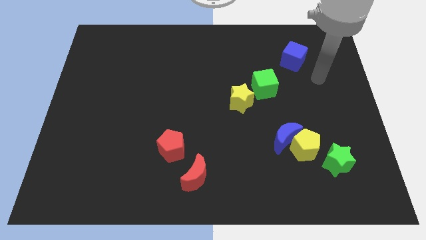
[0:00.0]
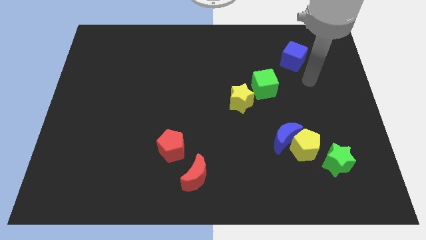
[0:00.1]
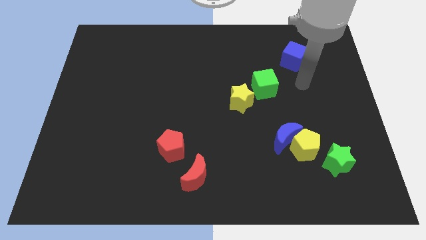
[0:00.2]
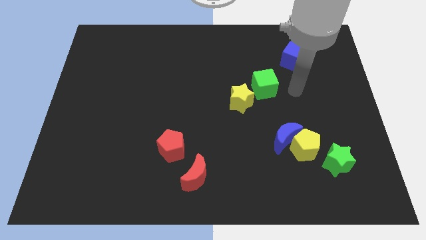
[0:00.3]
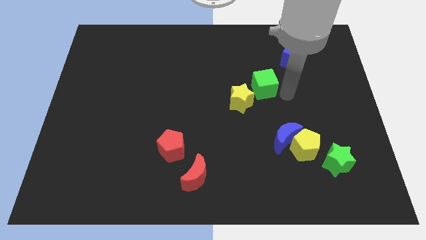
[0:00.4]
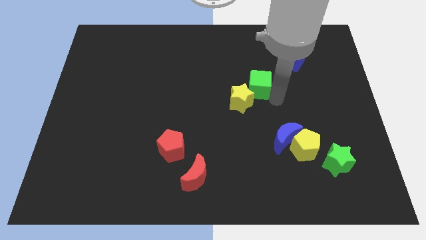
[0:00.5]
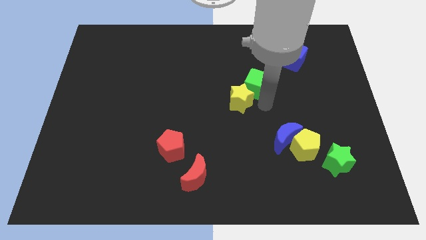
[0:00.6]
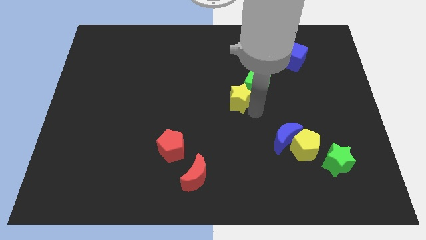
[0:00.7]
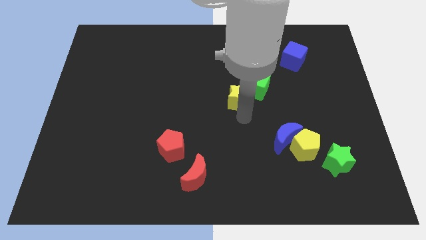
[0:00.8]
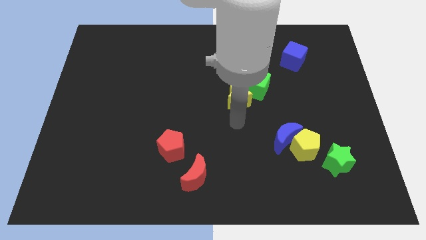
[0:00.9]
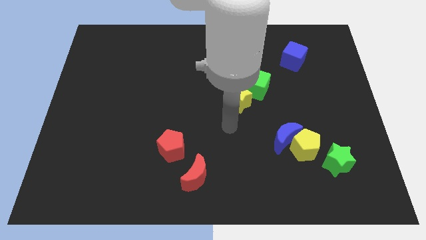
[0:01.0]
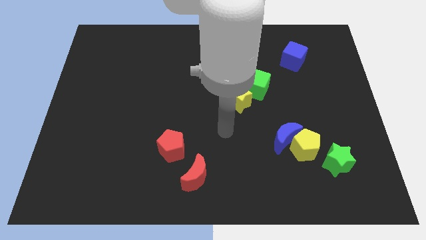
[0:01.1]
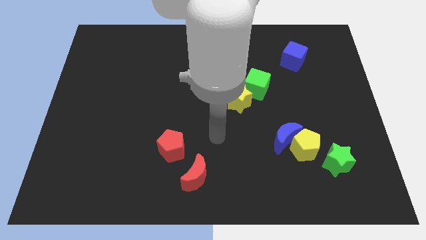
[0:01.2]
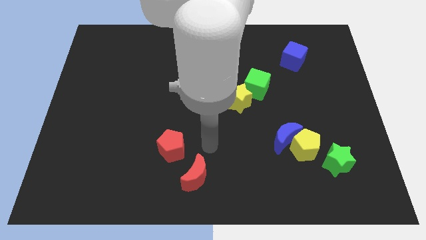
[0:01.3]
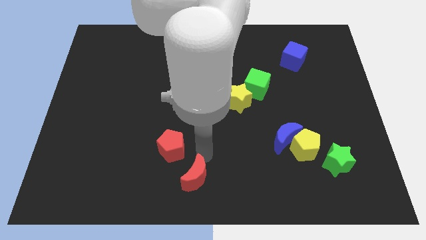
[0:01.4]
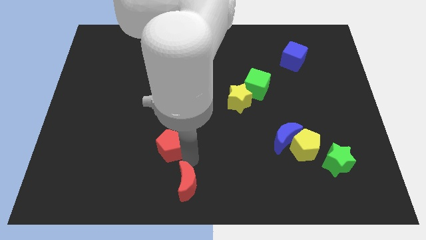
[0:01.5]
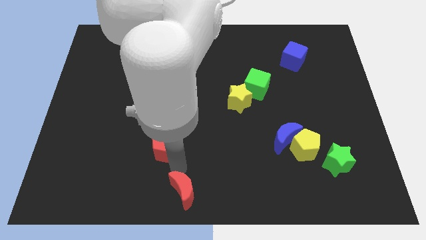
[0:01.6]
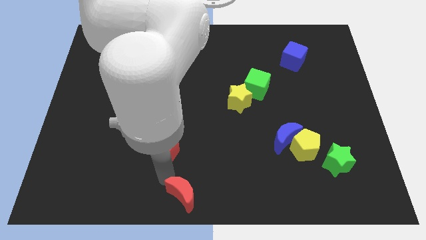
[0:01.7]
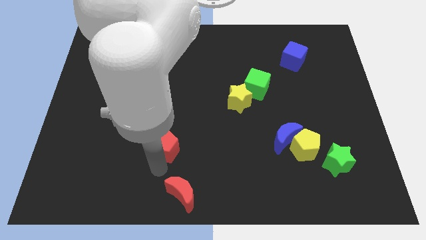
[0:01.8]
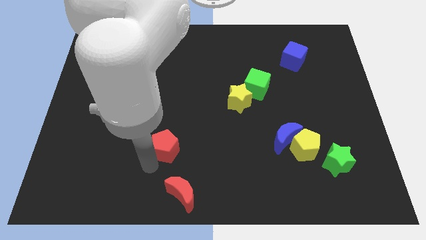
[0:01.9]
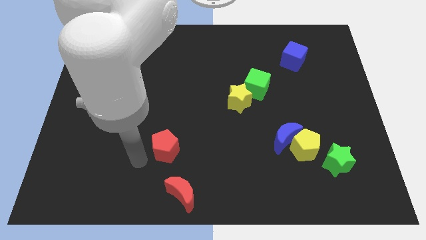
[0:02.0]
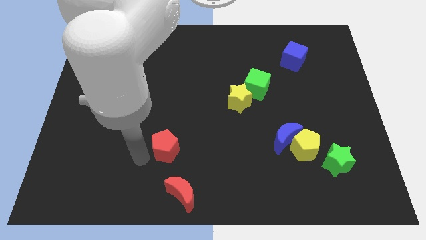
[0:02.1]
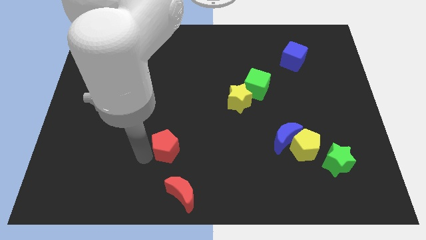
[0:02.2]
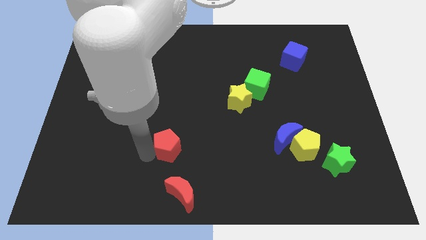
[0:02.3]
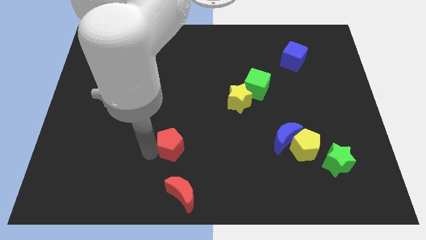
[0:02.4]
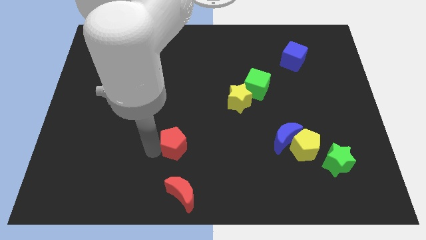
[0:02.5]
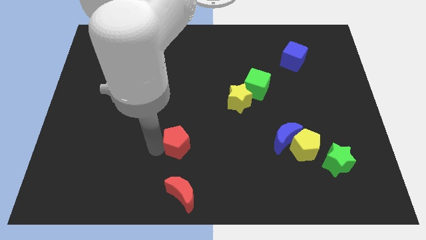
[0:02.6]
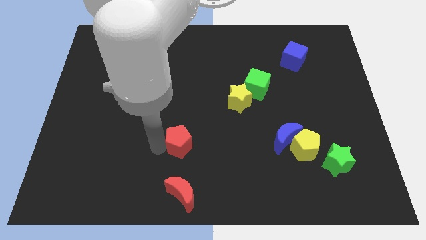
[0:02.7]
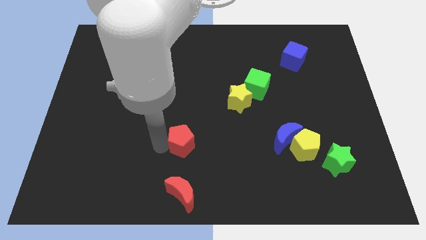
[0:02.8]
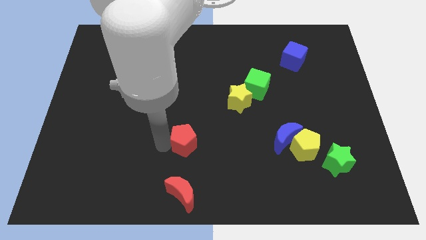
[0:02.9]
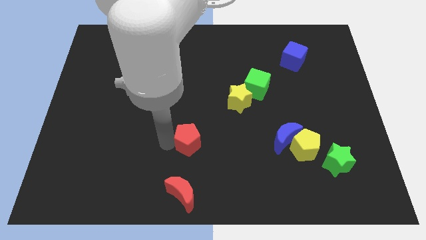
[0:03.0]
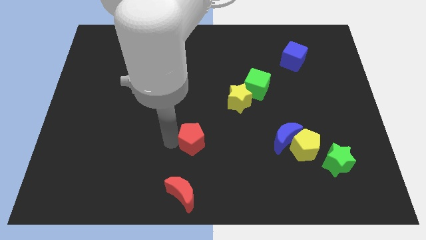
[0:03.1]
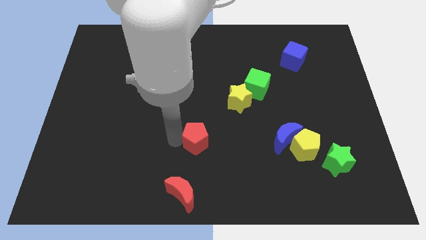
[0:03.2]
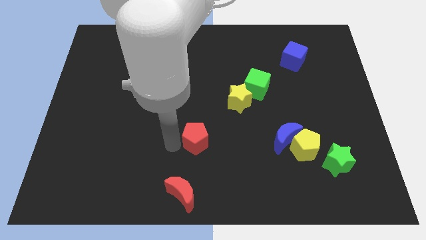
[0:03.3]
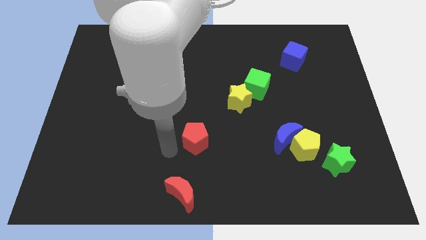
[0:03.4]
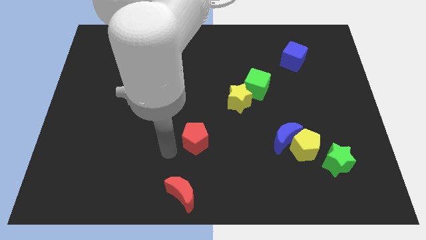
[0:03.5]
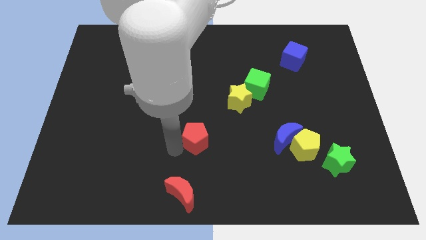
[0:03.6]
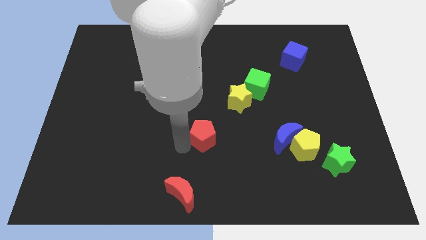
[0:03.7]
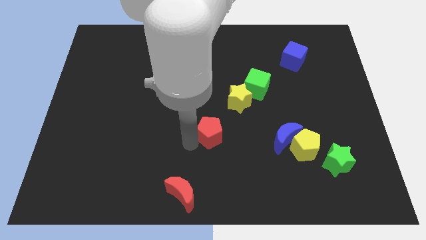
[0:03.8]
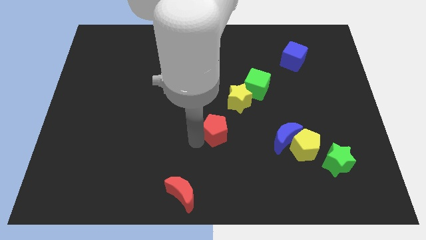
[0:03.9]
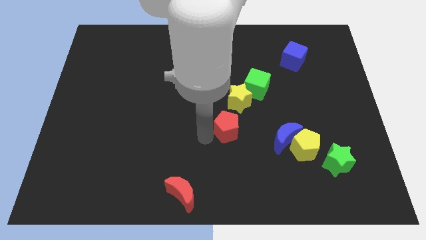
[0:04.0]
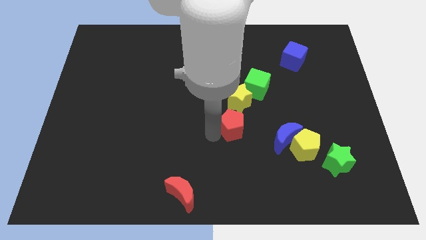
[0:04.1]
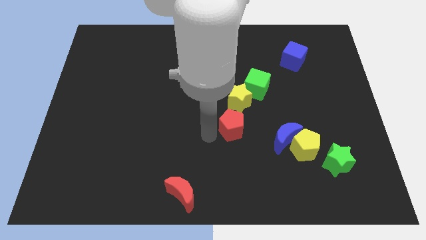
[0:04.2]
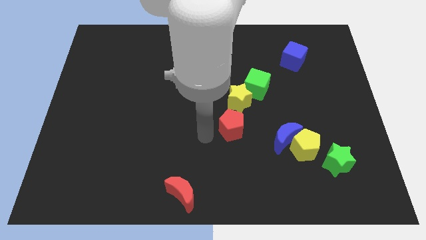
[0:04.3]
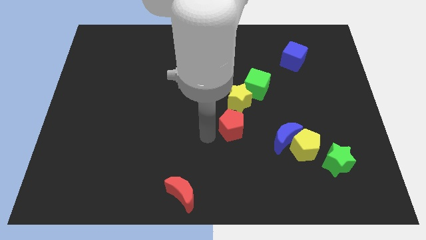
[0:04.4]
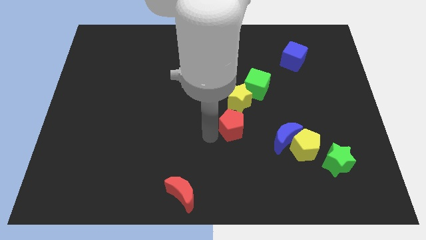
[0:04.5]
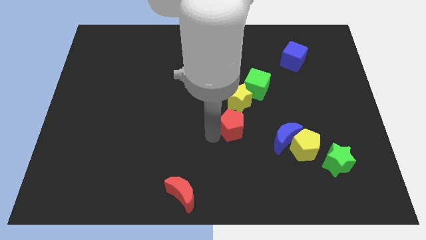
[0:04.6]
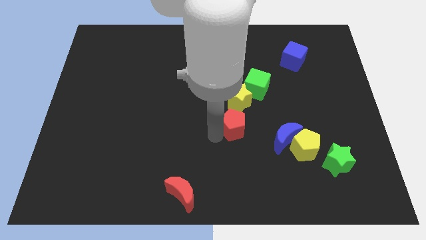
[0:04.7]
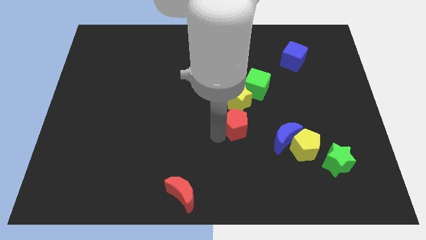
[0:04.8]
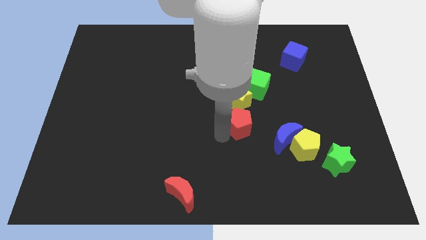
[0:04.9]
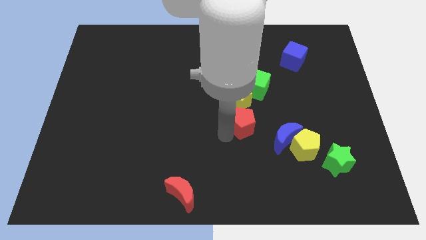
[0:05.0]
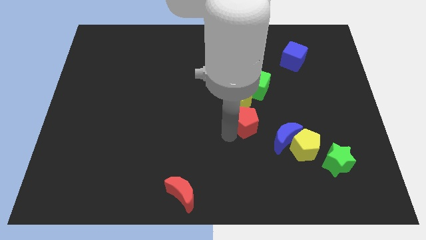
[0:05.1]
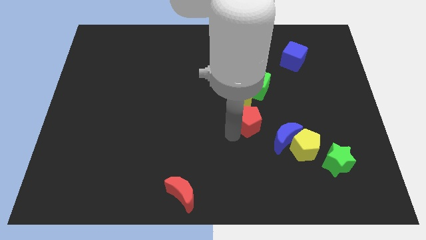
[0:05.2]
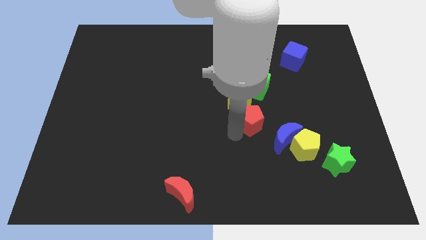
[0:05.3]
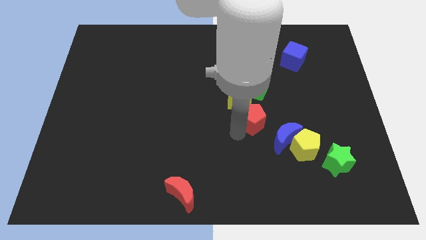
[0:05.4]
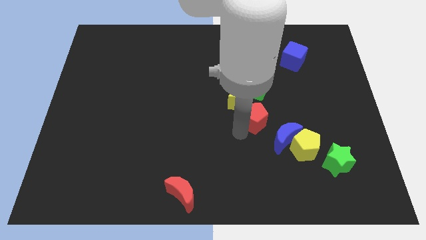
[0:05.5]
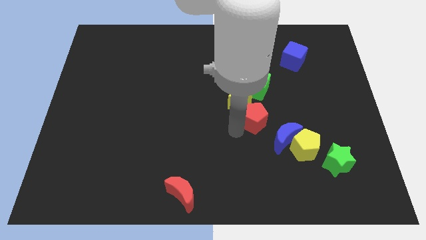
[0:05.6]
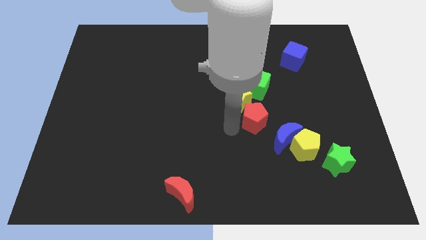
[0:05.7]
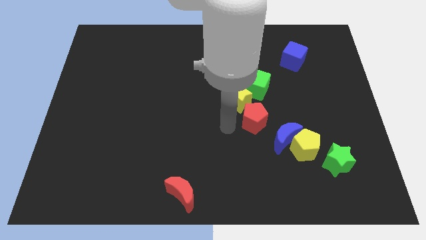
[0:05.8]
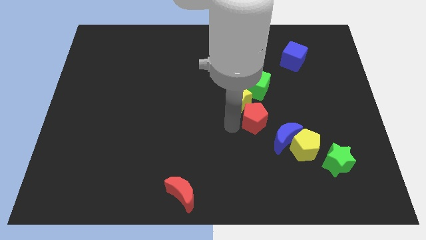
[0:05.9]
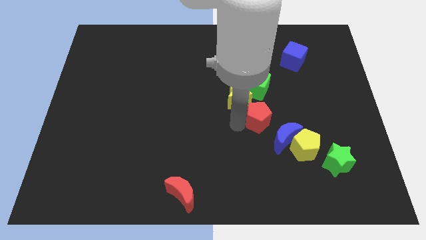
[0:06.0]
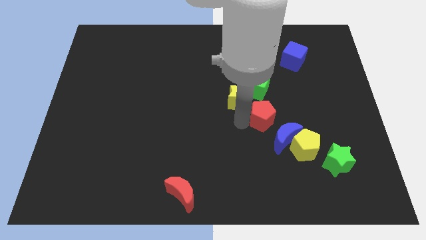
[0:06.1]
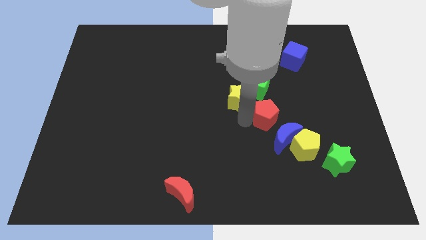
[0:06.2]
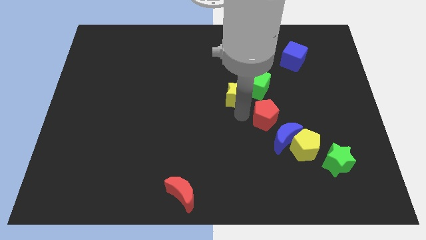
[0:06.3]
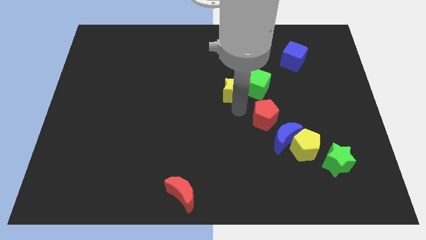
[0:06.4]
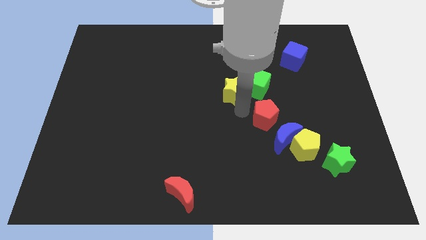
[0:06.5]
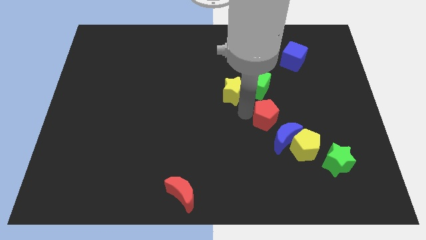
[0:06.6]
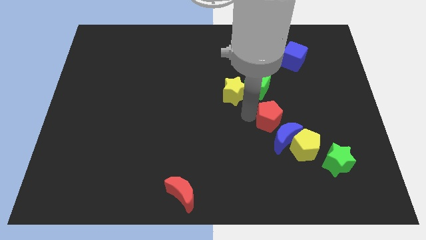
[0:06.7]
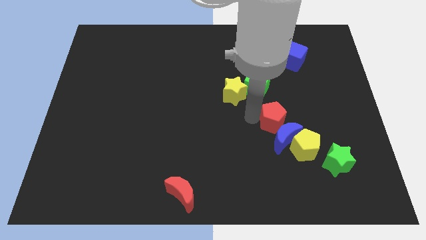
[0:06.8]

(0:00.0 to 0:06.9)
push the red pentagon right

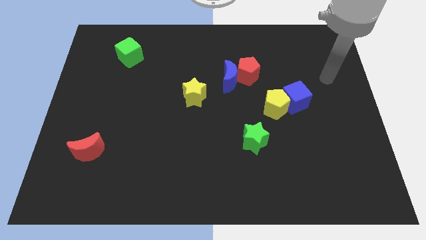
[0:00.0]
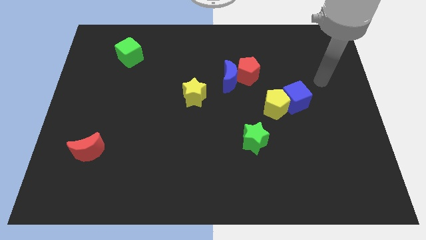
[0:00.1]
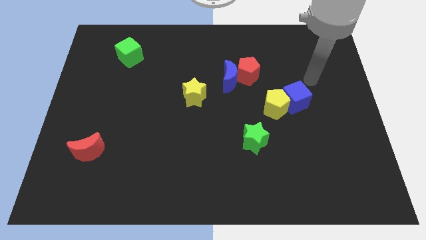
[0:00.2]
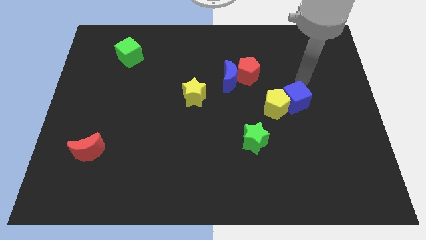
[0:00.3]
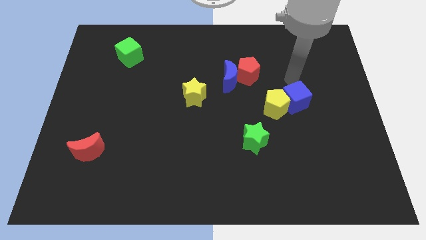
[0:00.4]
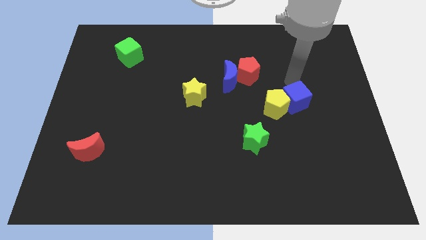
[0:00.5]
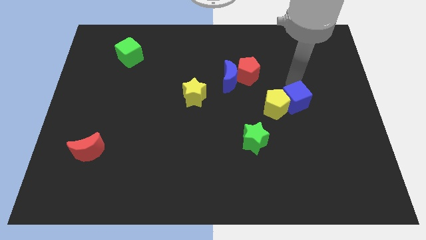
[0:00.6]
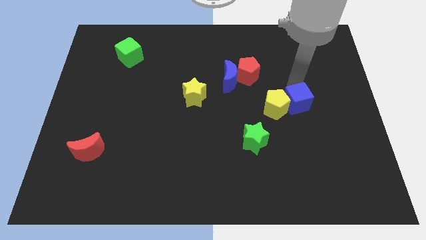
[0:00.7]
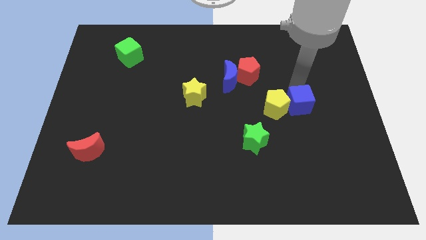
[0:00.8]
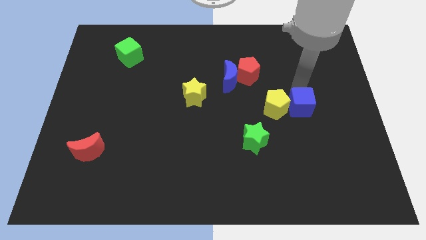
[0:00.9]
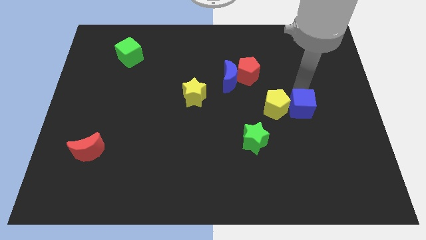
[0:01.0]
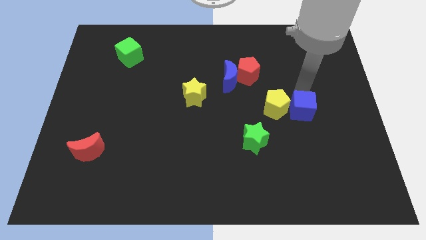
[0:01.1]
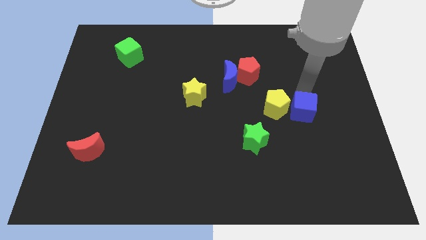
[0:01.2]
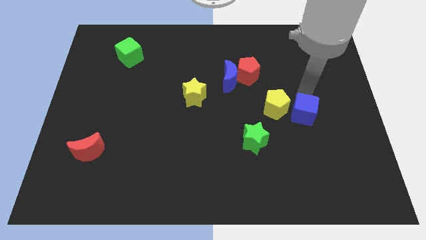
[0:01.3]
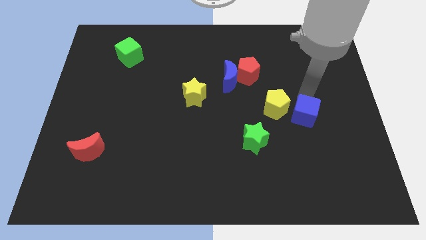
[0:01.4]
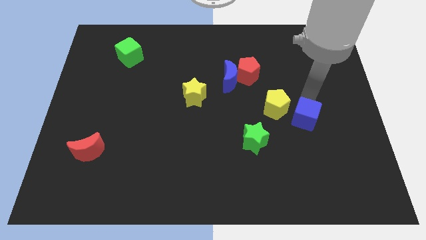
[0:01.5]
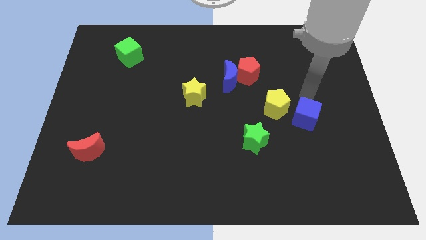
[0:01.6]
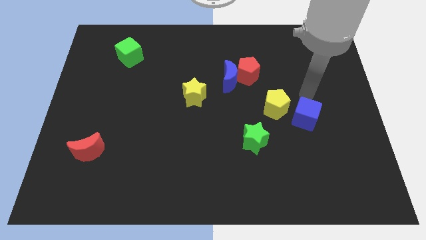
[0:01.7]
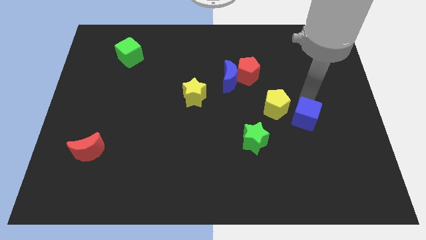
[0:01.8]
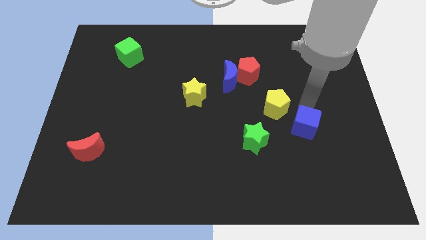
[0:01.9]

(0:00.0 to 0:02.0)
slightly move the blue cube down

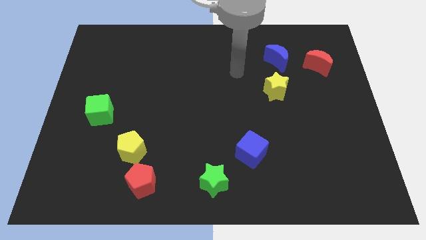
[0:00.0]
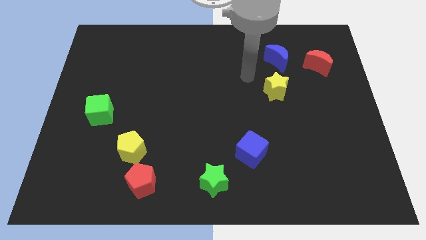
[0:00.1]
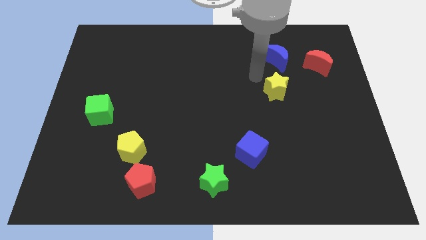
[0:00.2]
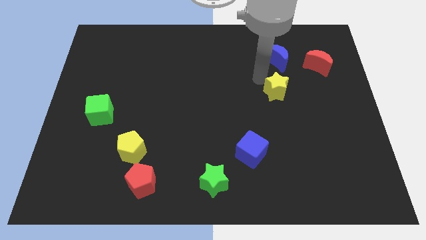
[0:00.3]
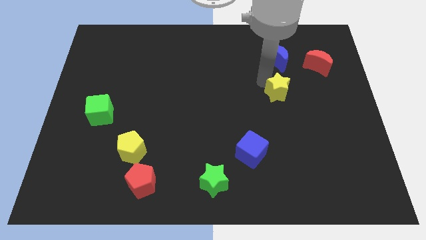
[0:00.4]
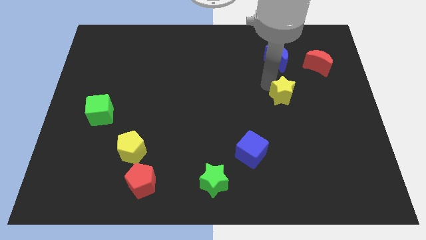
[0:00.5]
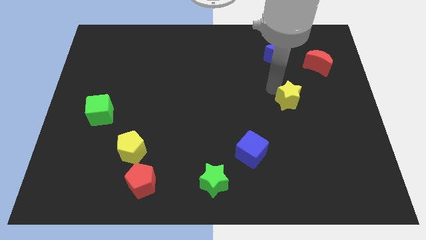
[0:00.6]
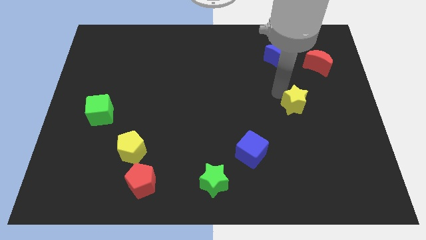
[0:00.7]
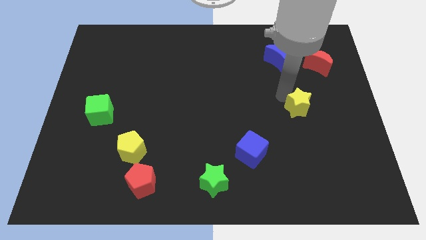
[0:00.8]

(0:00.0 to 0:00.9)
push the yellow star a little down and to the right
